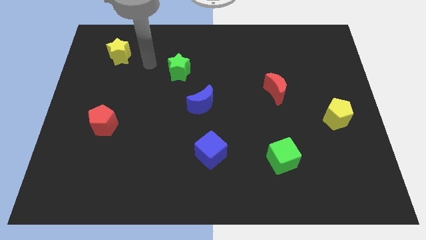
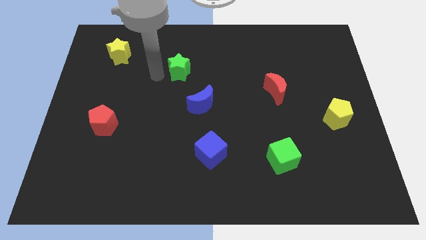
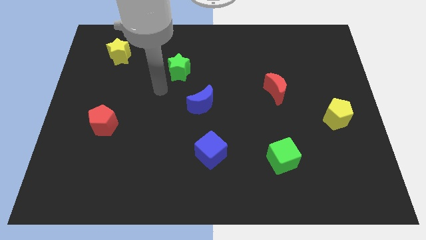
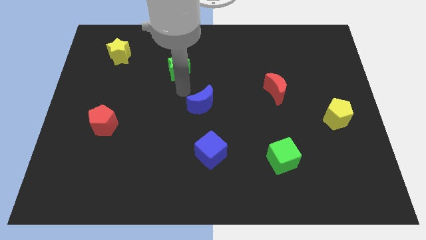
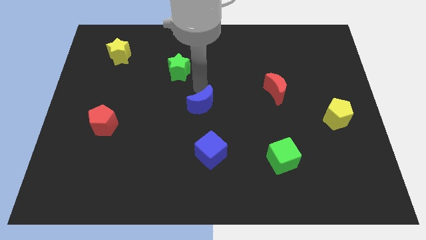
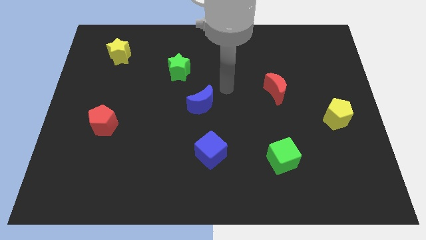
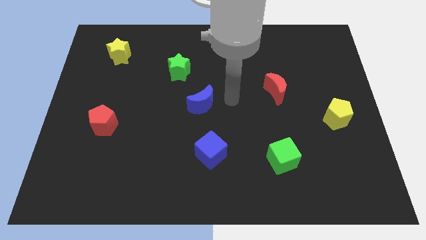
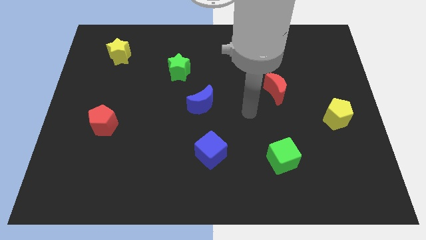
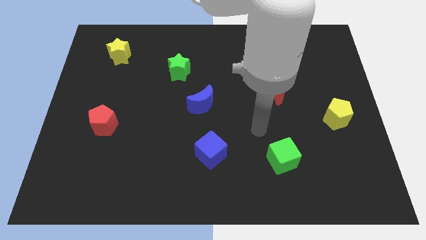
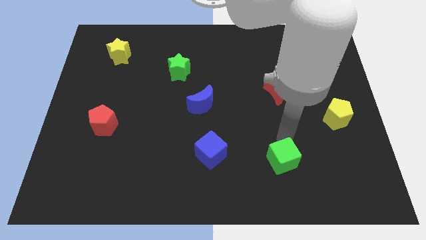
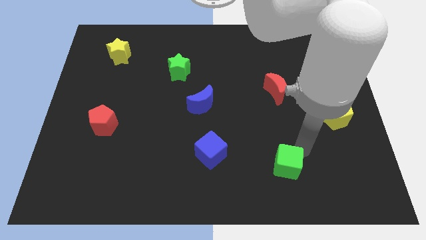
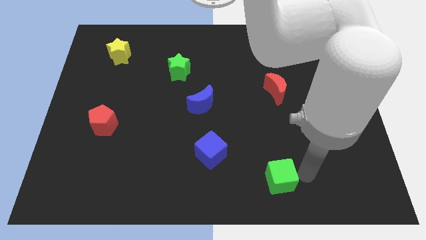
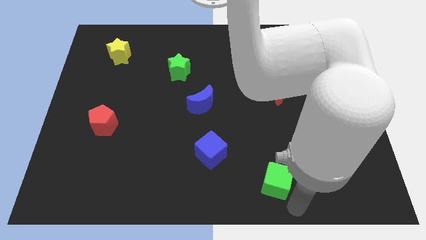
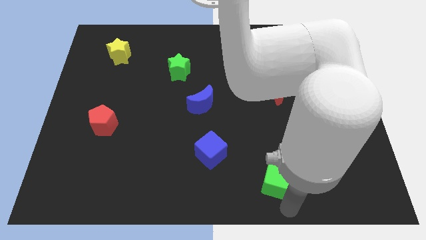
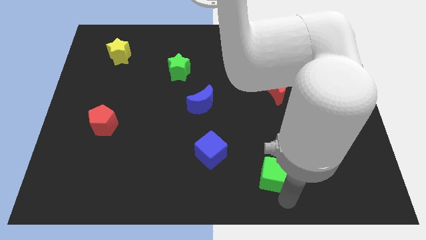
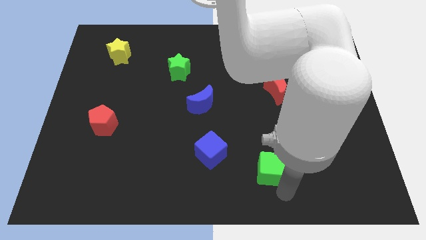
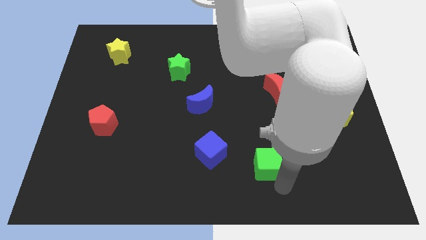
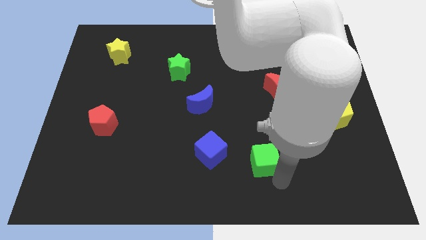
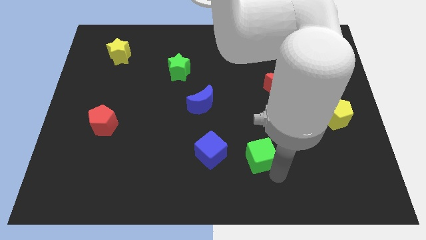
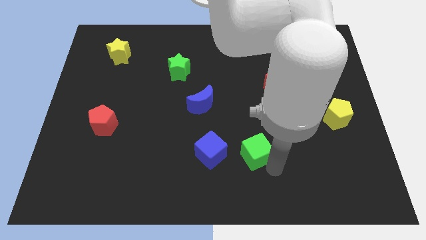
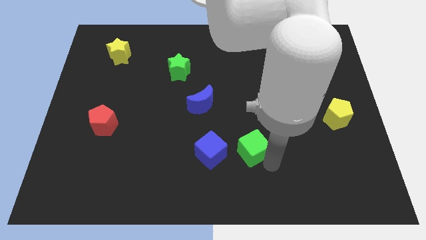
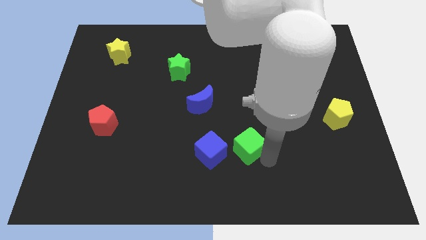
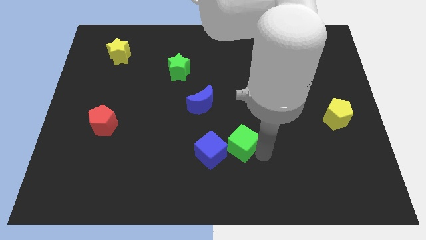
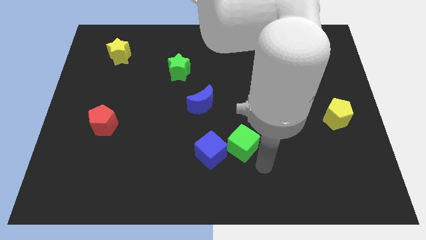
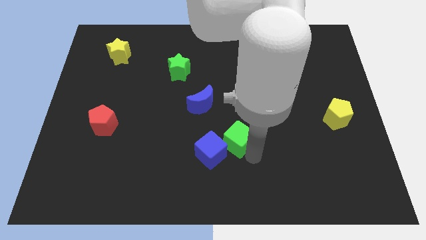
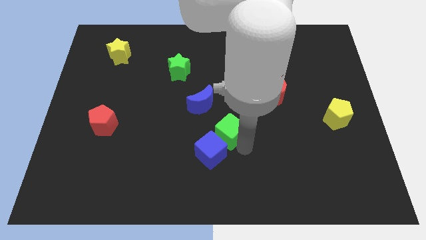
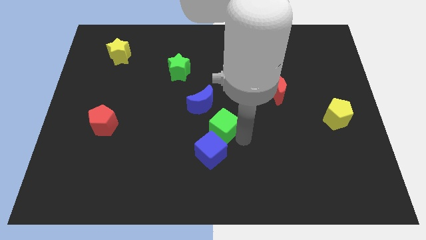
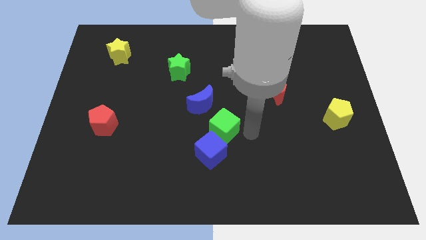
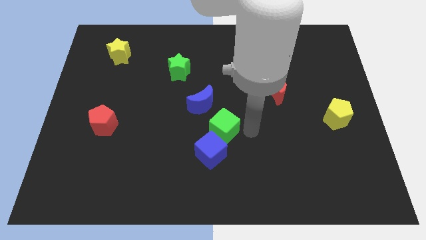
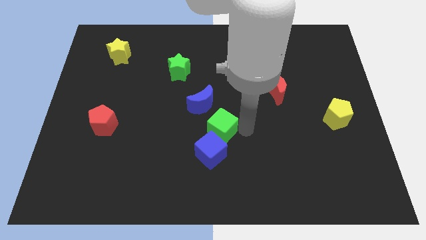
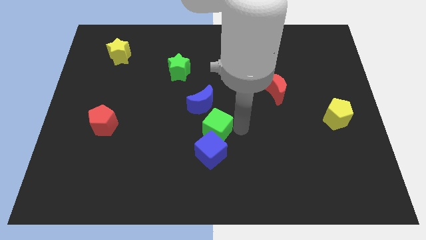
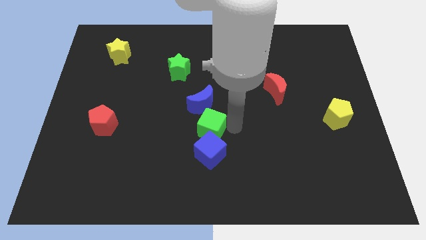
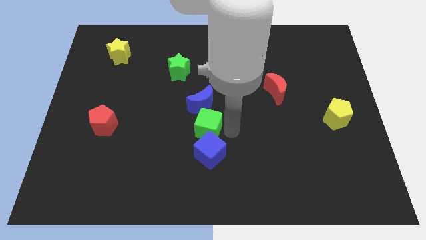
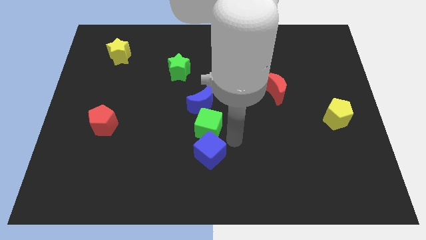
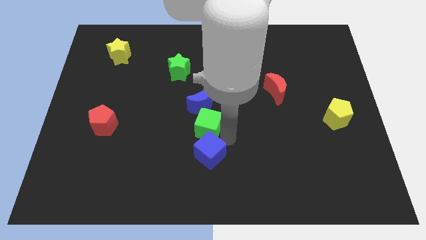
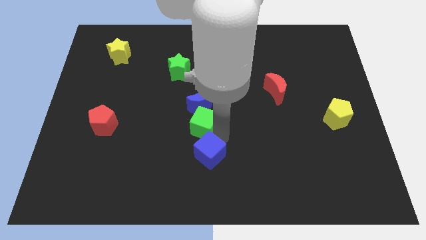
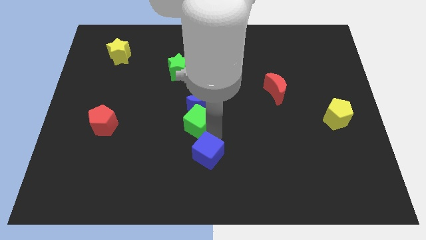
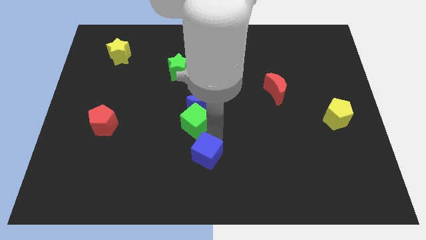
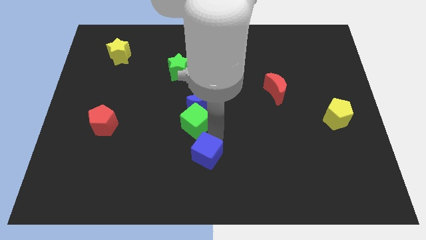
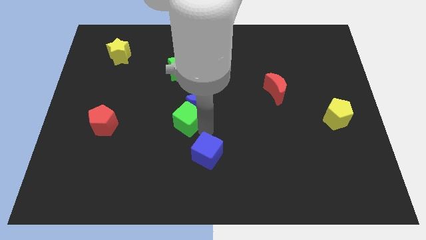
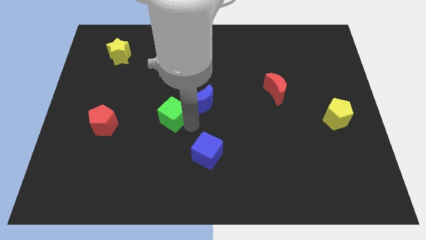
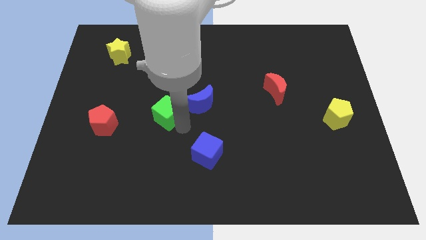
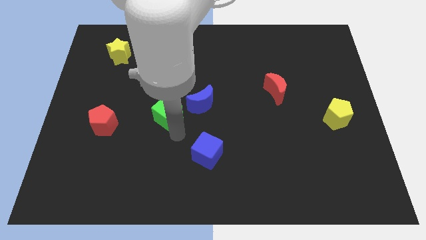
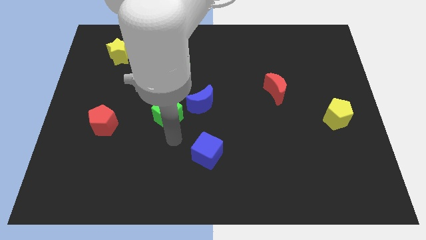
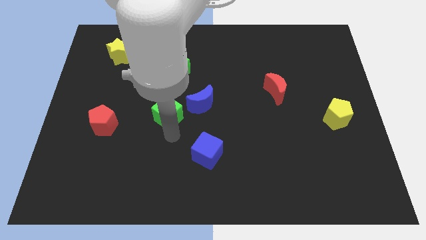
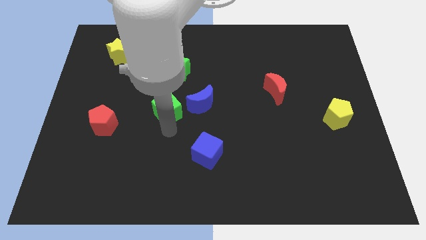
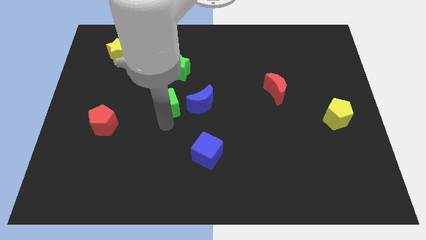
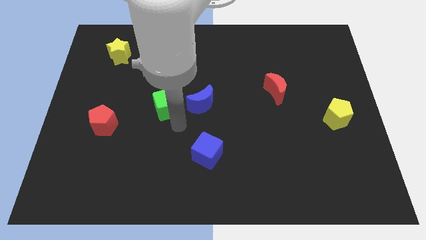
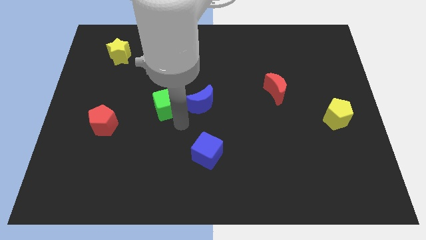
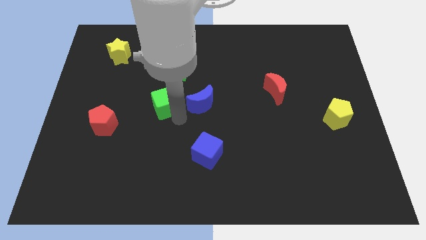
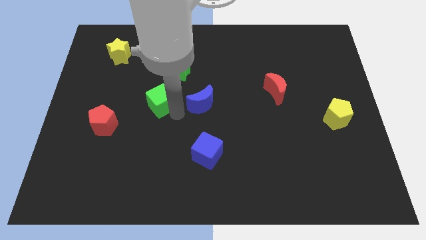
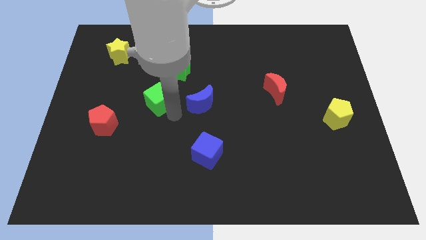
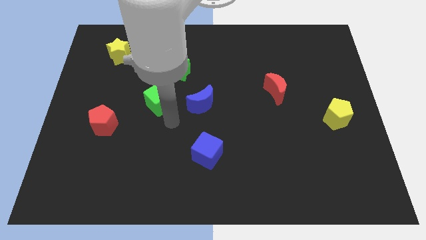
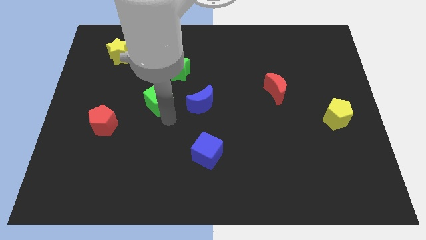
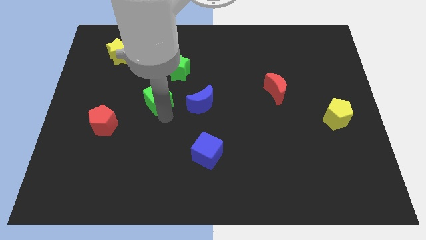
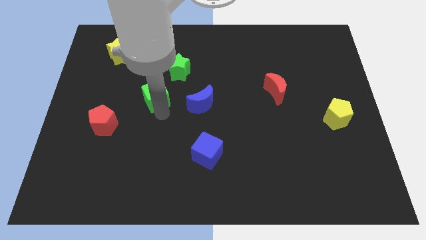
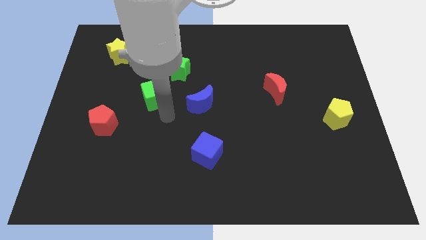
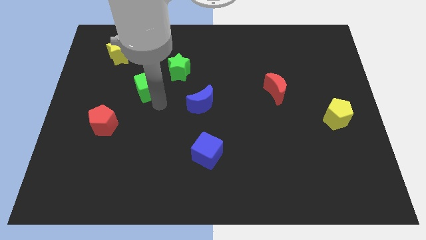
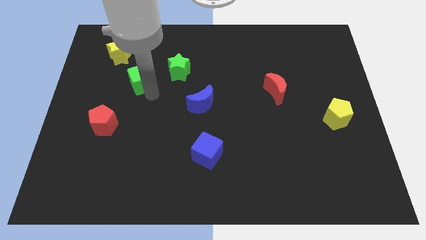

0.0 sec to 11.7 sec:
push the green cube to the left side of the green star

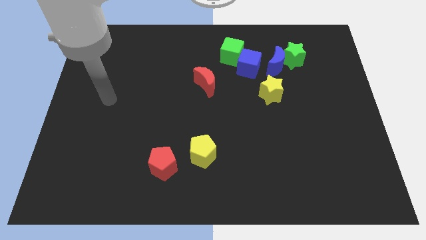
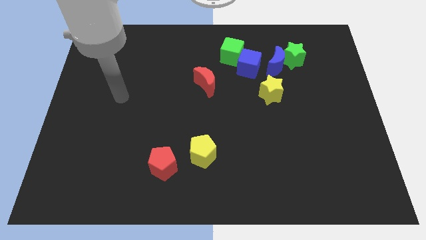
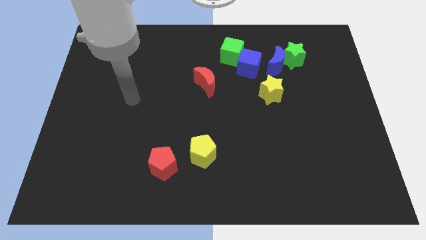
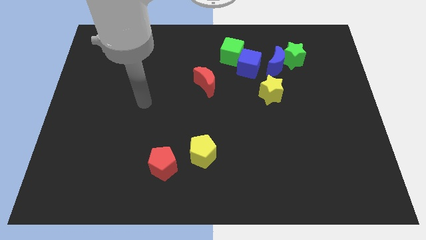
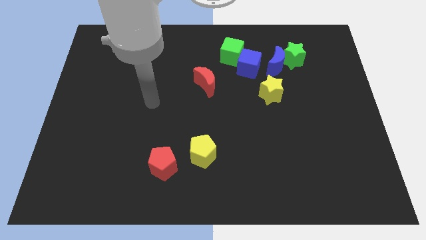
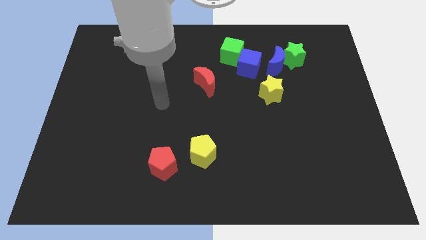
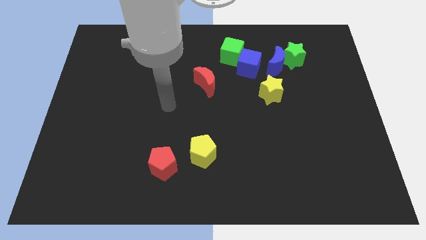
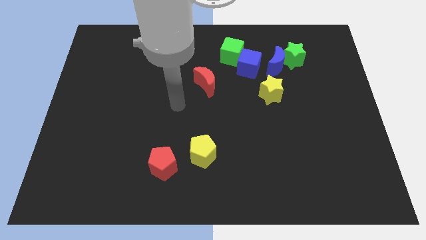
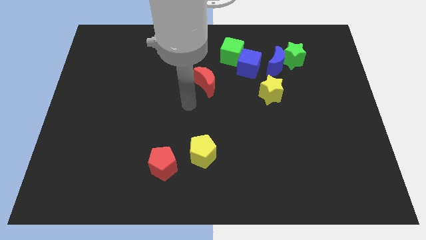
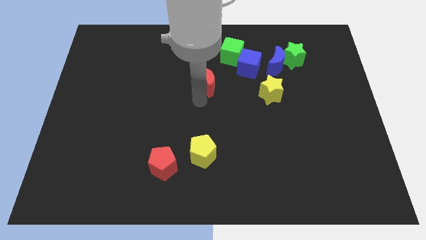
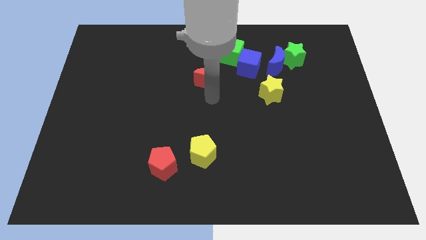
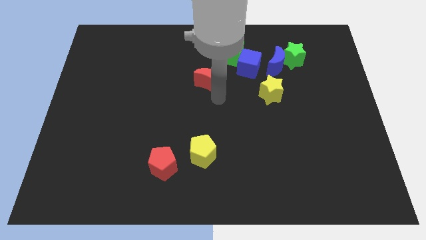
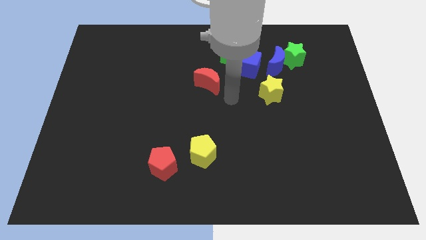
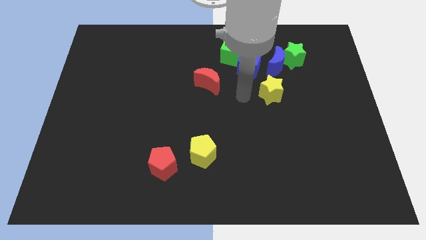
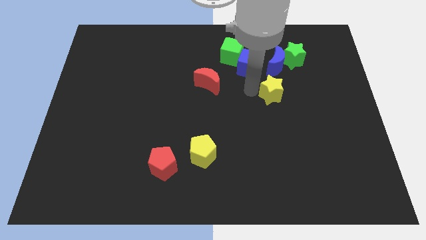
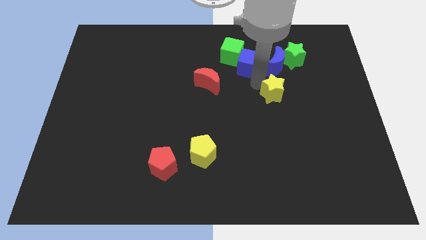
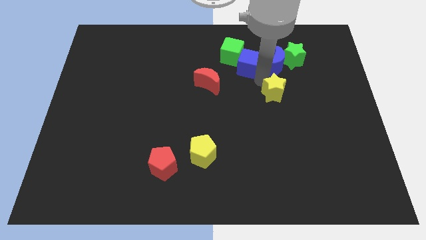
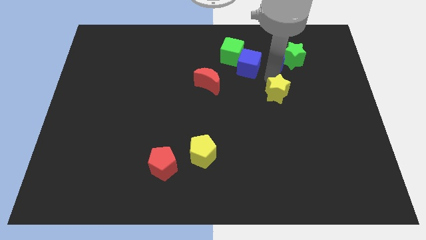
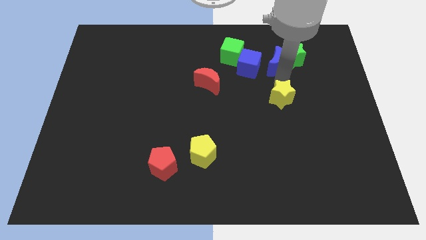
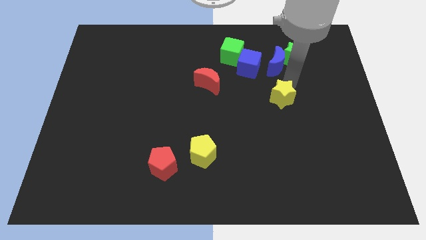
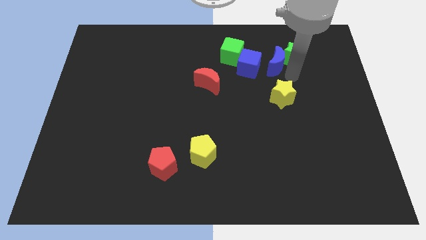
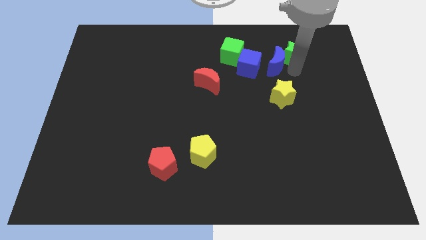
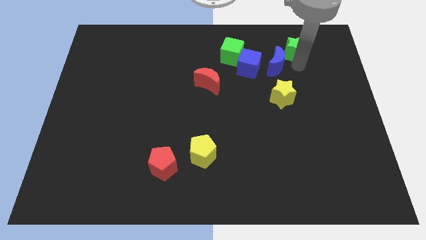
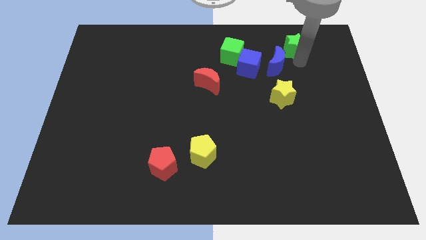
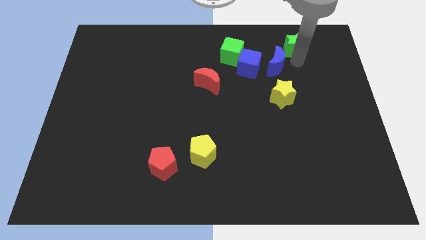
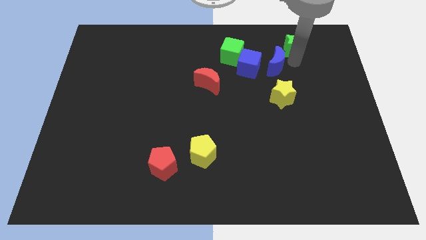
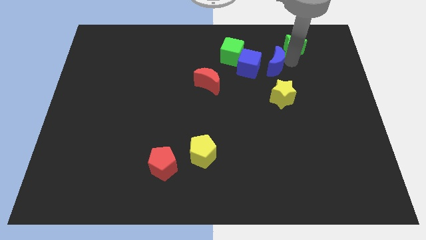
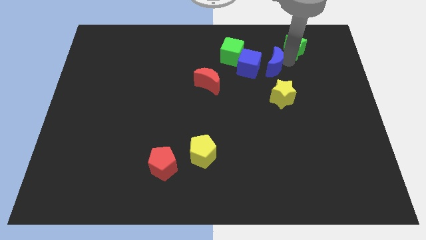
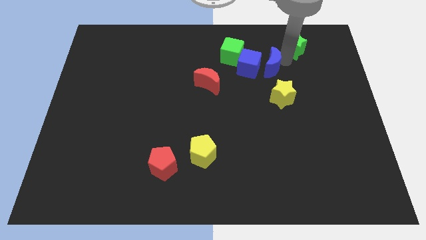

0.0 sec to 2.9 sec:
slide the blue moon diagonally down and to the right of the green cube
